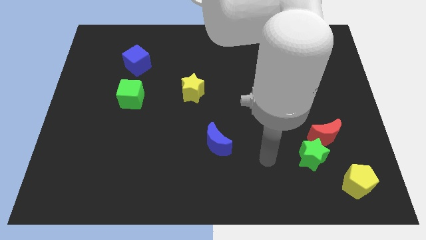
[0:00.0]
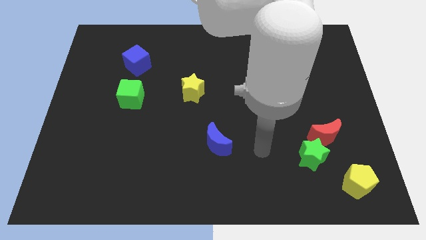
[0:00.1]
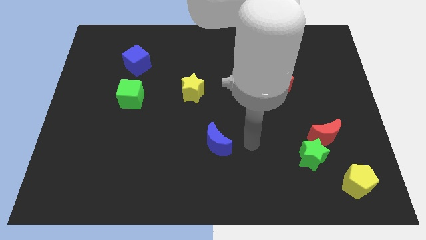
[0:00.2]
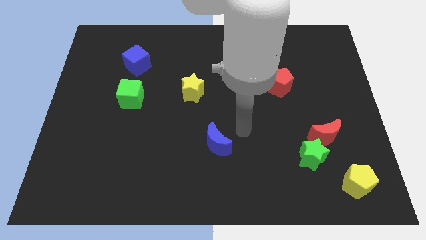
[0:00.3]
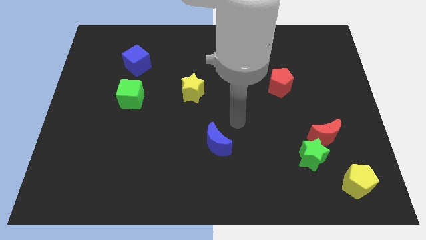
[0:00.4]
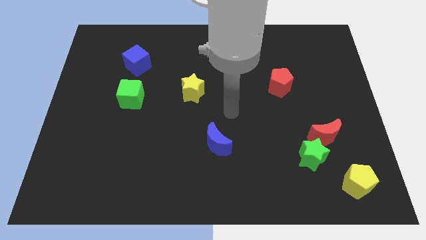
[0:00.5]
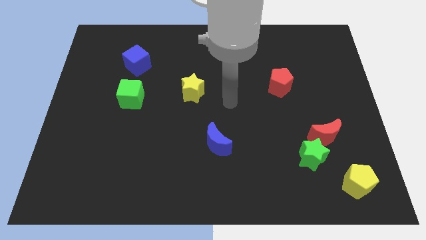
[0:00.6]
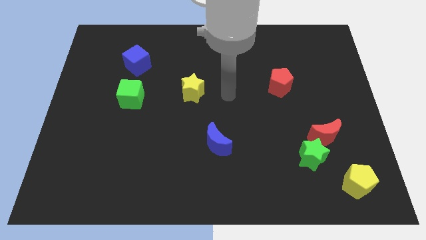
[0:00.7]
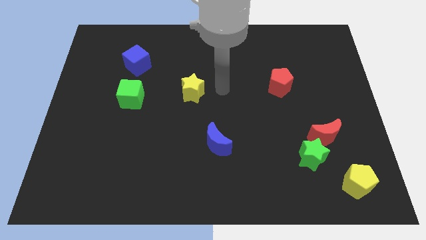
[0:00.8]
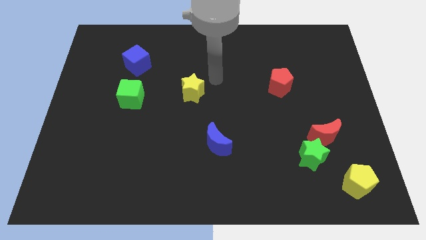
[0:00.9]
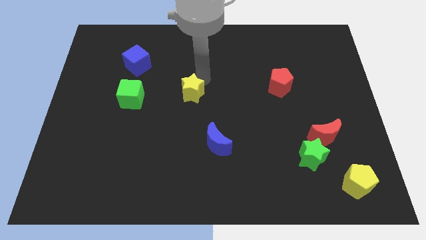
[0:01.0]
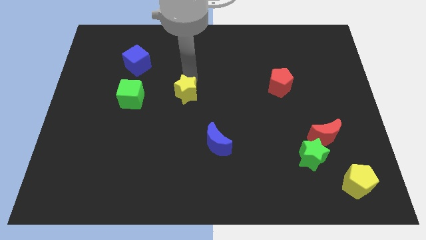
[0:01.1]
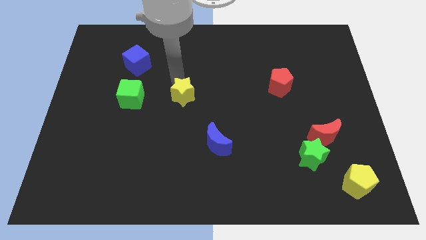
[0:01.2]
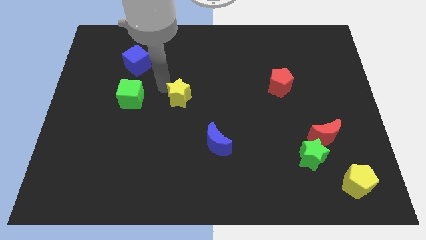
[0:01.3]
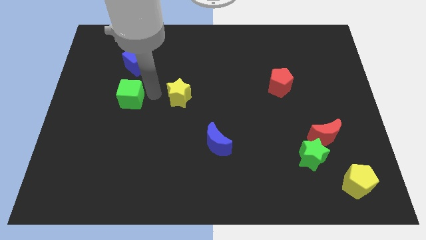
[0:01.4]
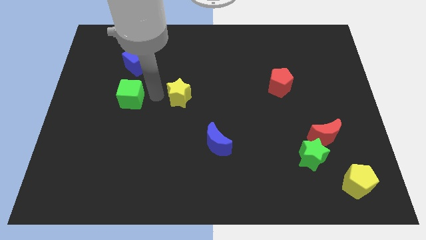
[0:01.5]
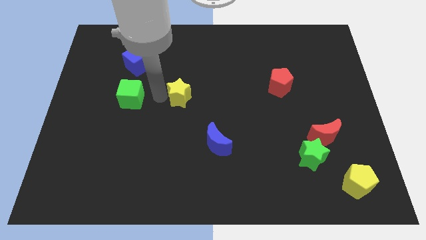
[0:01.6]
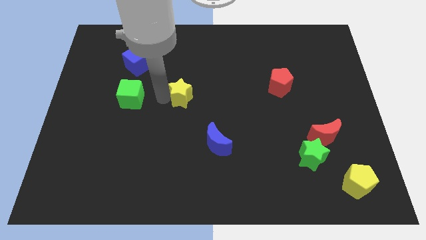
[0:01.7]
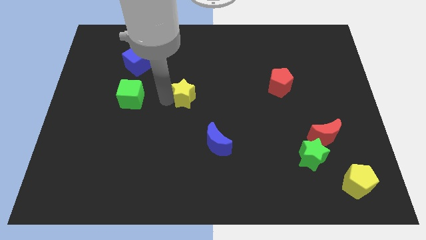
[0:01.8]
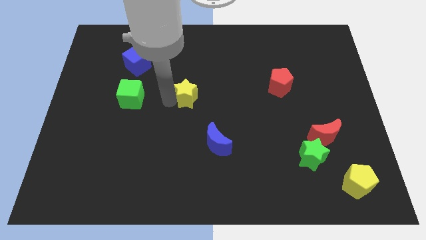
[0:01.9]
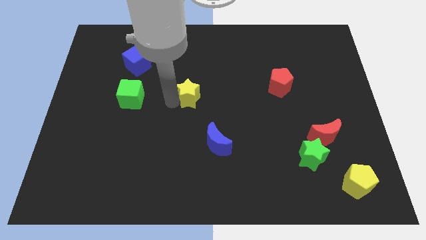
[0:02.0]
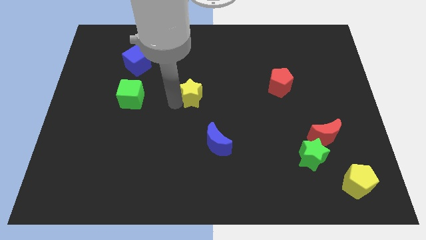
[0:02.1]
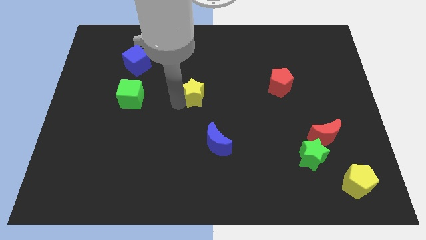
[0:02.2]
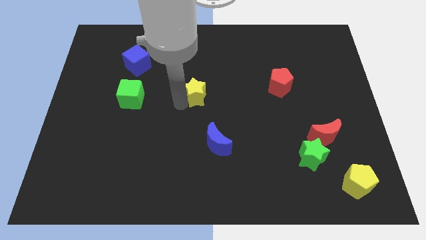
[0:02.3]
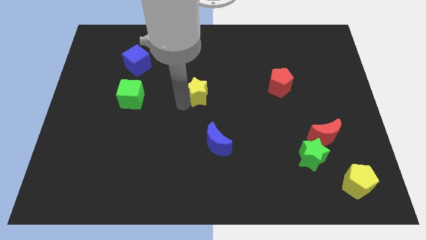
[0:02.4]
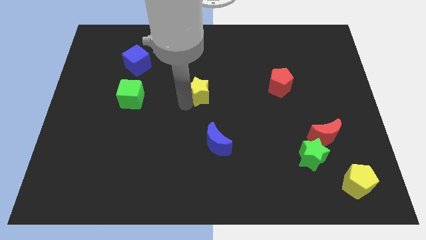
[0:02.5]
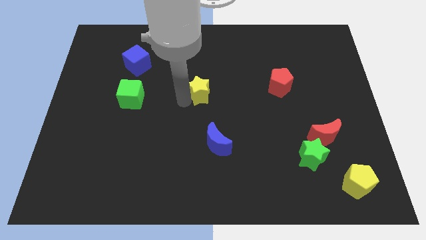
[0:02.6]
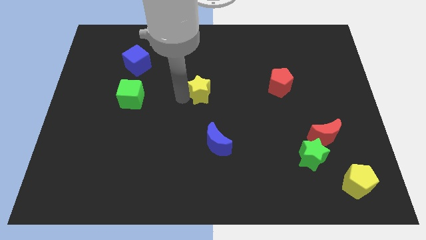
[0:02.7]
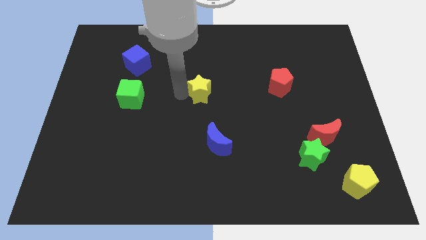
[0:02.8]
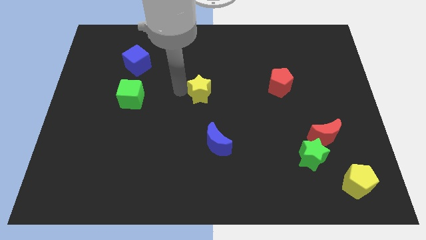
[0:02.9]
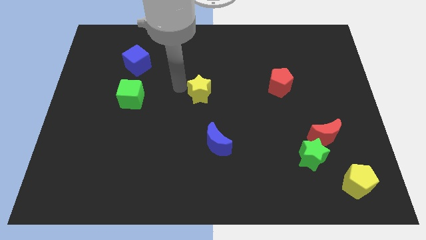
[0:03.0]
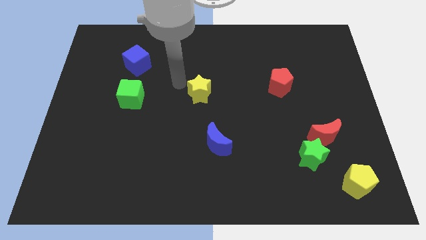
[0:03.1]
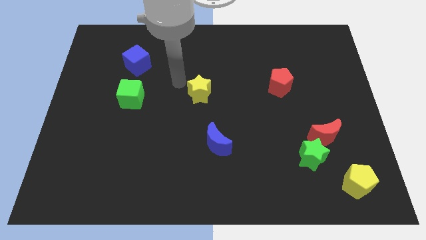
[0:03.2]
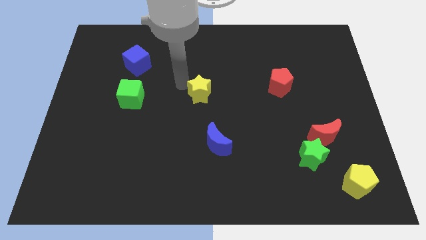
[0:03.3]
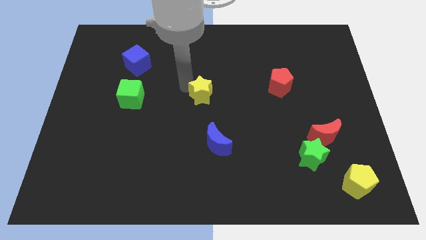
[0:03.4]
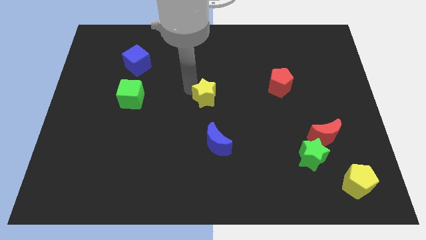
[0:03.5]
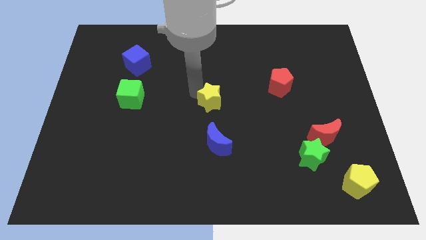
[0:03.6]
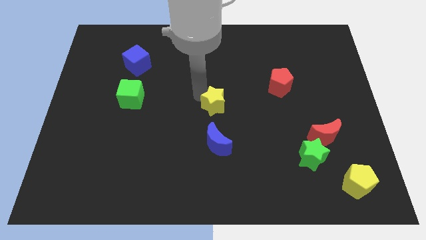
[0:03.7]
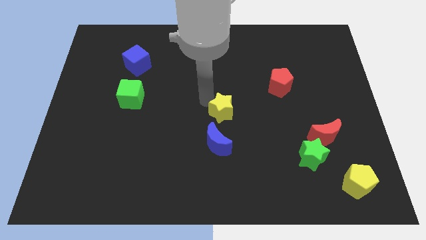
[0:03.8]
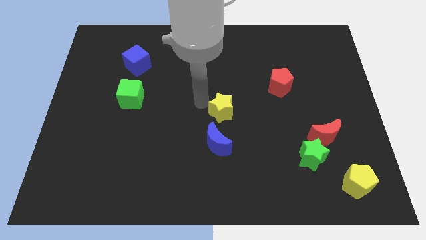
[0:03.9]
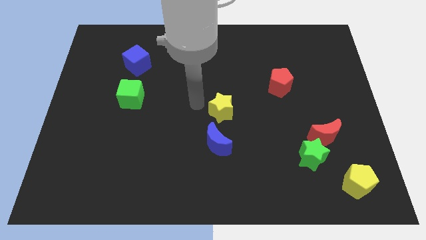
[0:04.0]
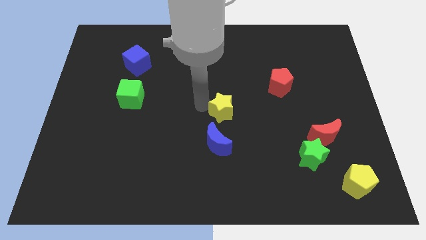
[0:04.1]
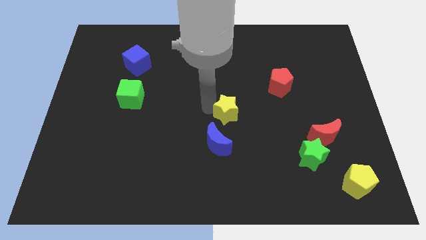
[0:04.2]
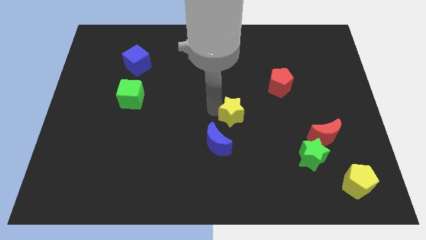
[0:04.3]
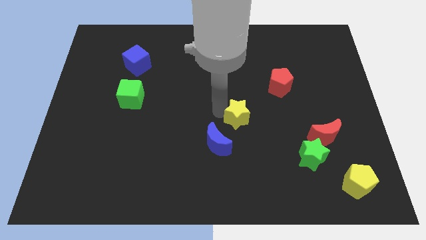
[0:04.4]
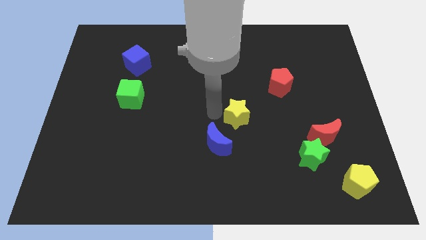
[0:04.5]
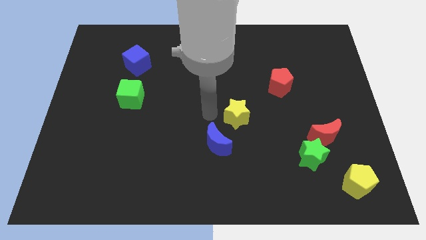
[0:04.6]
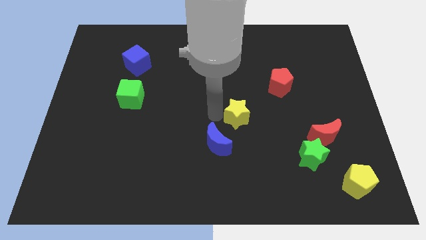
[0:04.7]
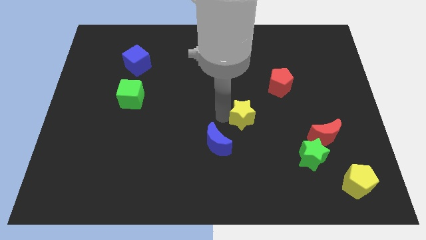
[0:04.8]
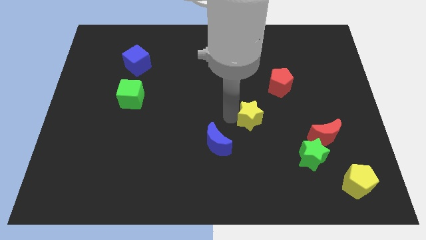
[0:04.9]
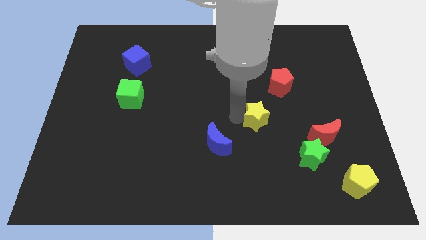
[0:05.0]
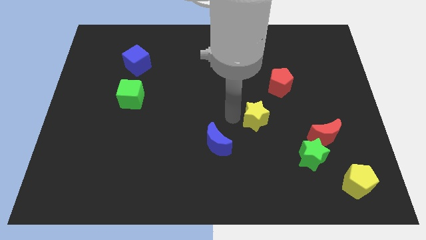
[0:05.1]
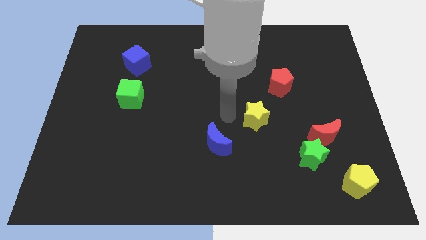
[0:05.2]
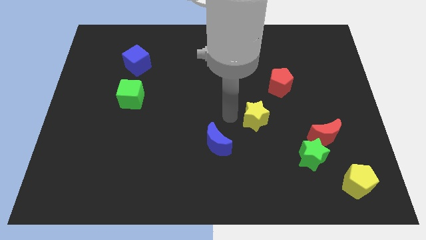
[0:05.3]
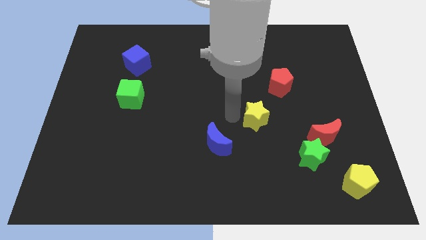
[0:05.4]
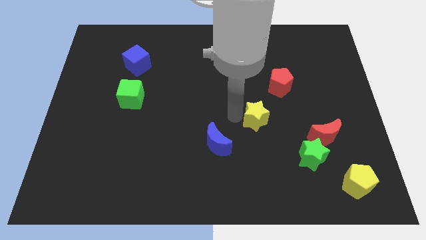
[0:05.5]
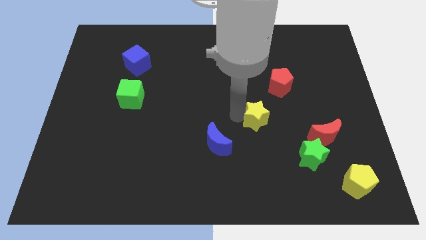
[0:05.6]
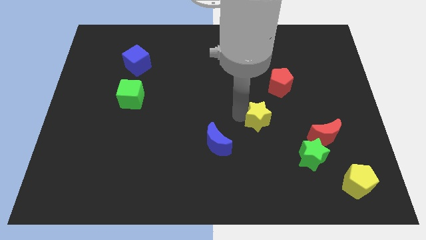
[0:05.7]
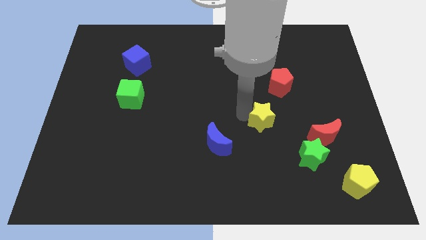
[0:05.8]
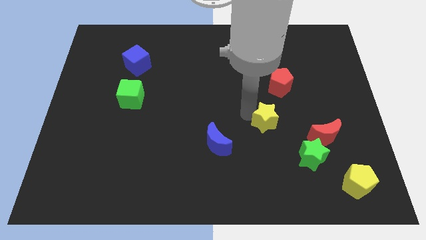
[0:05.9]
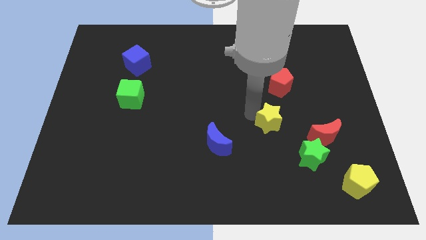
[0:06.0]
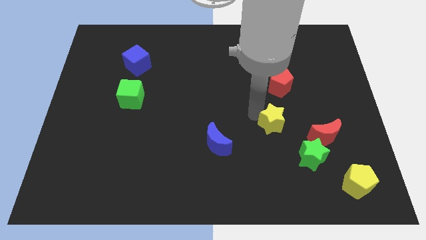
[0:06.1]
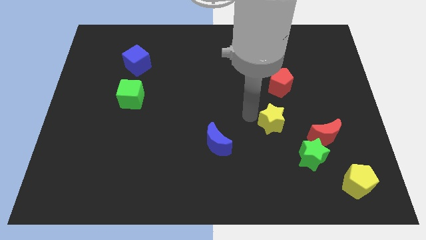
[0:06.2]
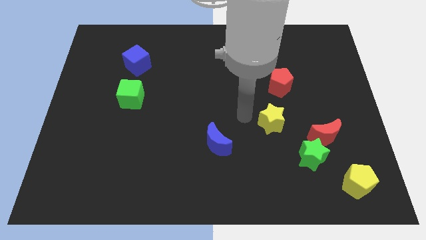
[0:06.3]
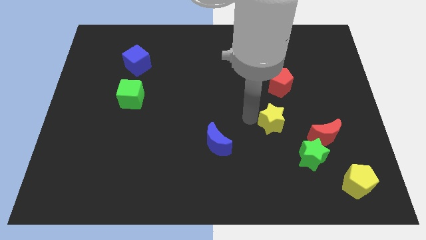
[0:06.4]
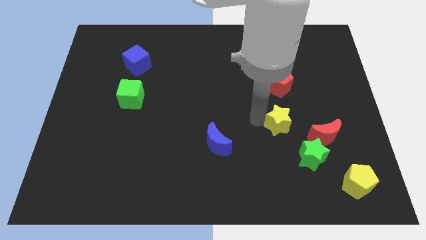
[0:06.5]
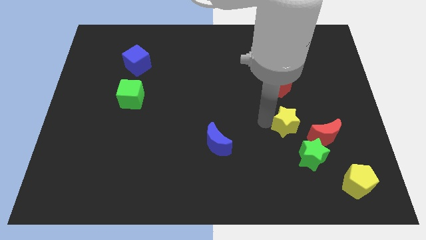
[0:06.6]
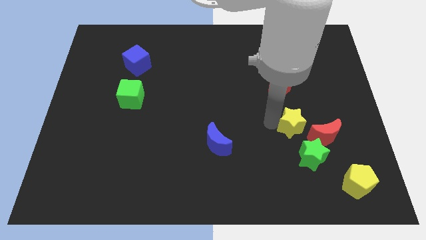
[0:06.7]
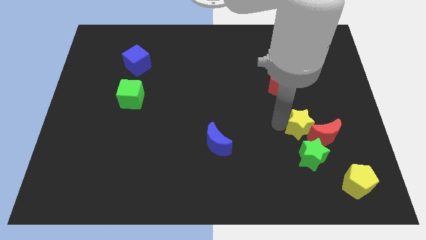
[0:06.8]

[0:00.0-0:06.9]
push the yellow star next to the red moon

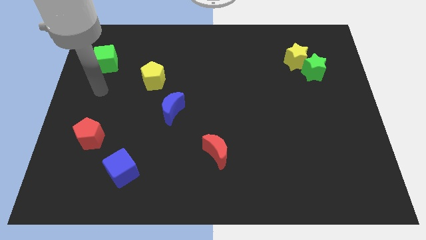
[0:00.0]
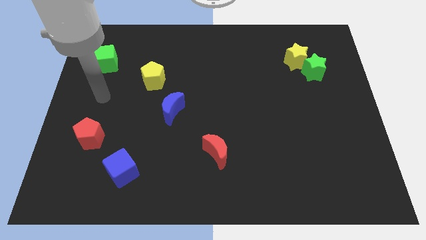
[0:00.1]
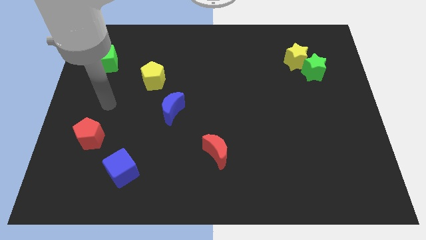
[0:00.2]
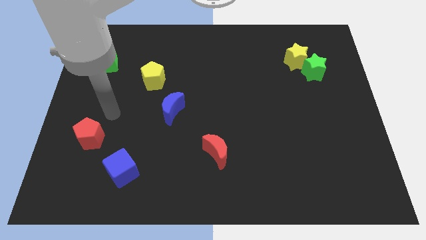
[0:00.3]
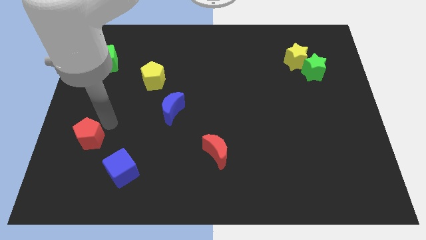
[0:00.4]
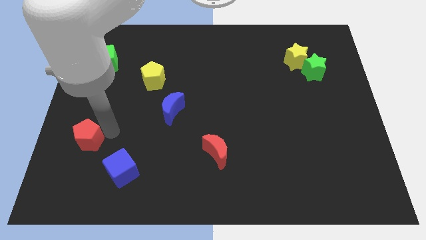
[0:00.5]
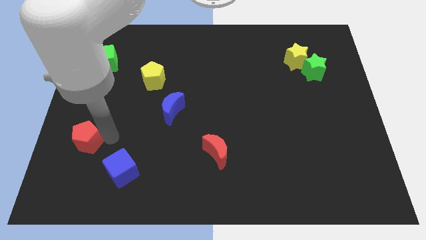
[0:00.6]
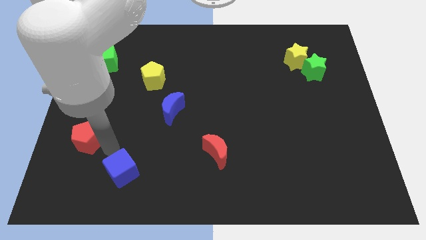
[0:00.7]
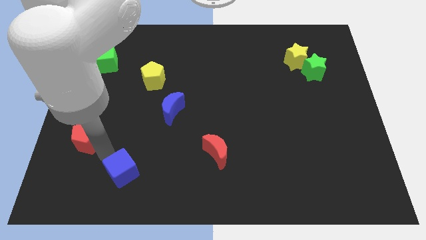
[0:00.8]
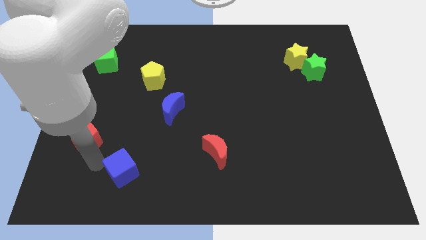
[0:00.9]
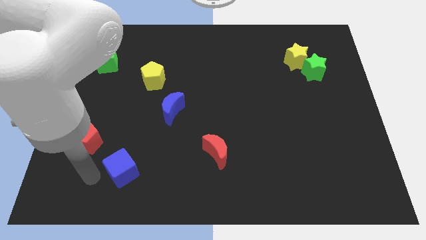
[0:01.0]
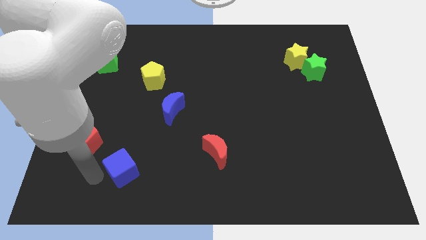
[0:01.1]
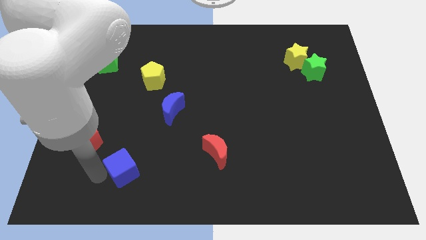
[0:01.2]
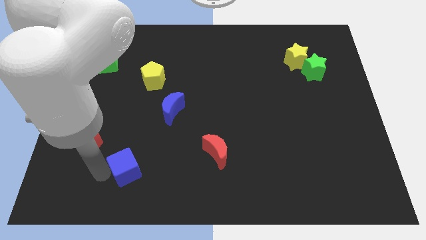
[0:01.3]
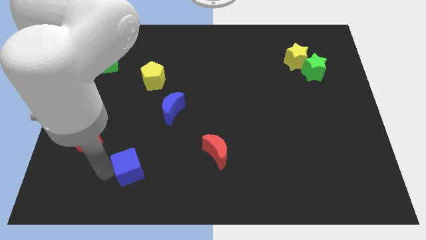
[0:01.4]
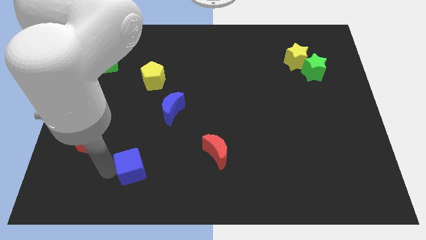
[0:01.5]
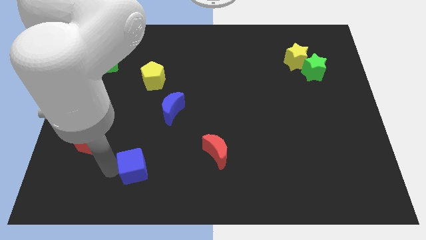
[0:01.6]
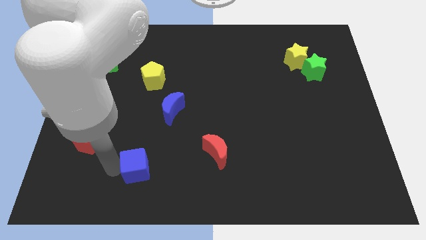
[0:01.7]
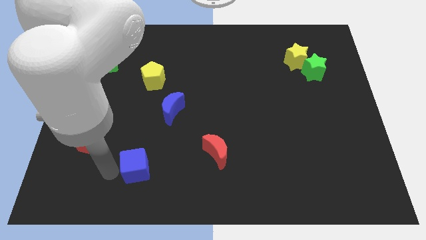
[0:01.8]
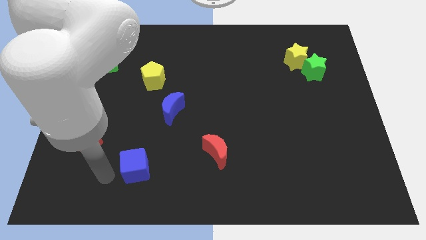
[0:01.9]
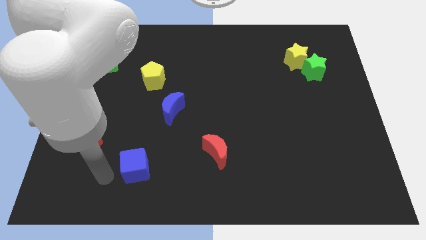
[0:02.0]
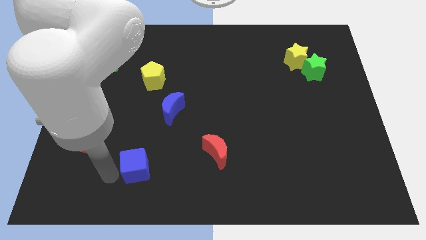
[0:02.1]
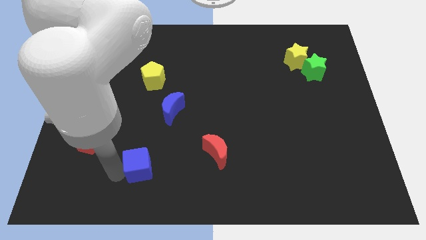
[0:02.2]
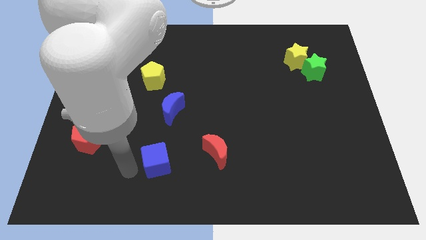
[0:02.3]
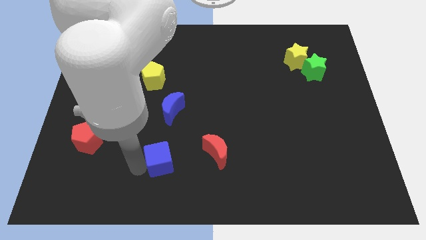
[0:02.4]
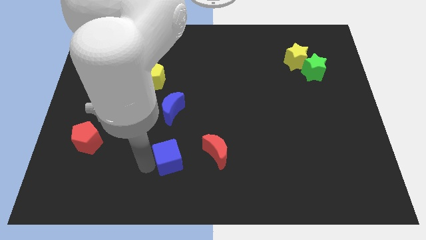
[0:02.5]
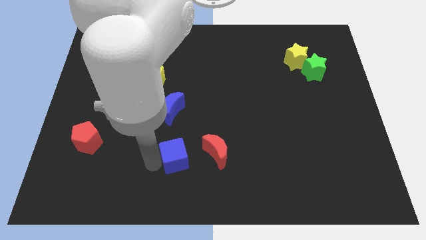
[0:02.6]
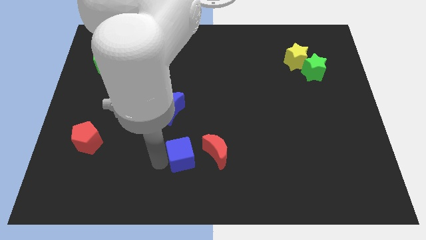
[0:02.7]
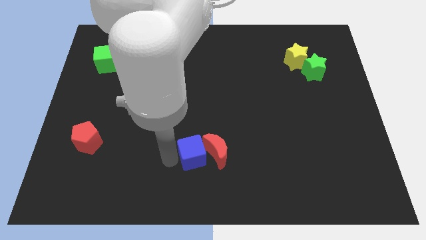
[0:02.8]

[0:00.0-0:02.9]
put the blue cube to the red moon
